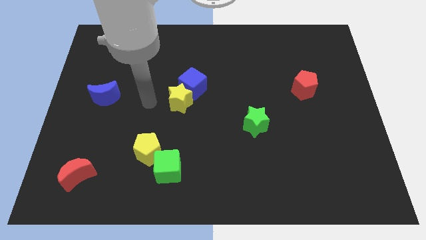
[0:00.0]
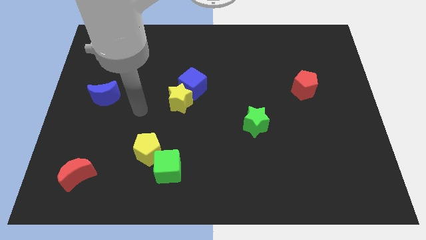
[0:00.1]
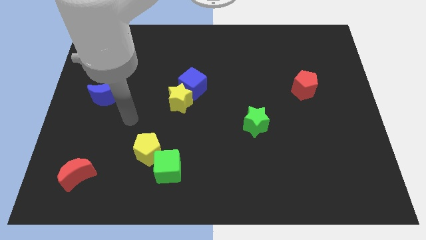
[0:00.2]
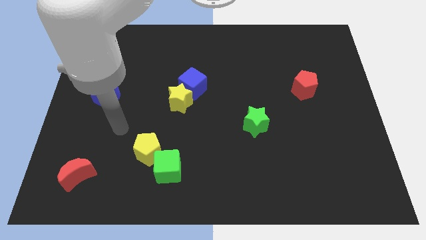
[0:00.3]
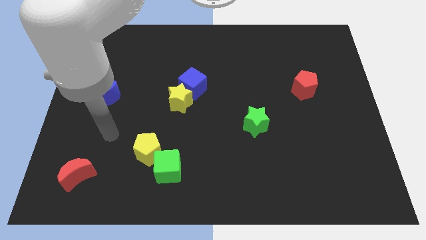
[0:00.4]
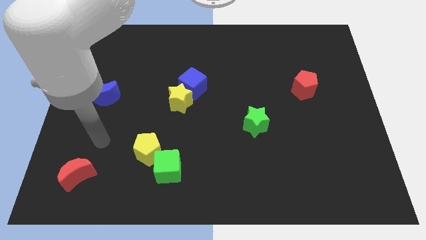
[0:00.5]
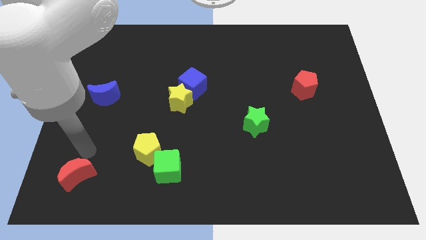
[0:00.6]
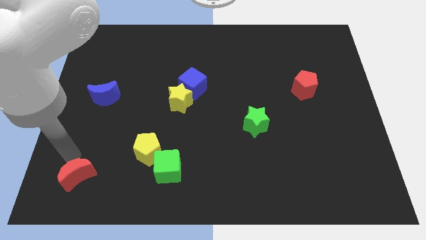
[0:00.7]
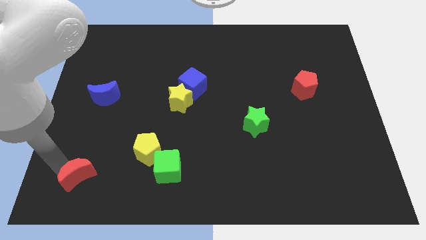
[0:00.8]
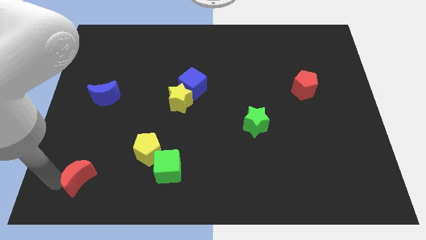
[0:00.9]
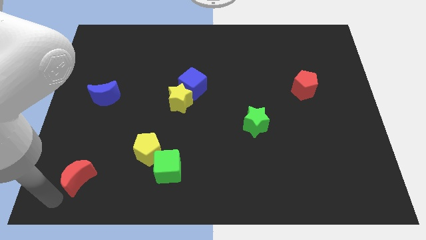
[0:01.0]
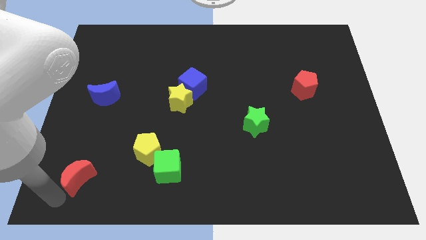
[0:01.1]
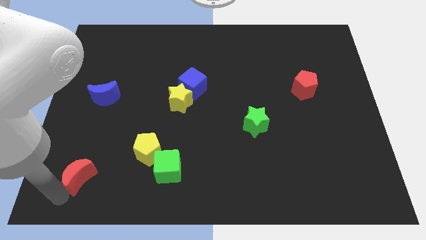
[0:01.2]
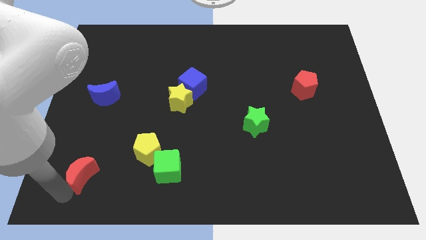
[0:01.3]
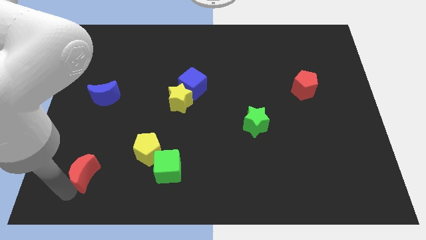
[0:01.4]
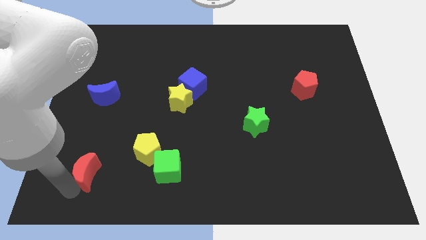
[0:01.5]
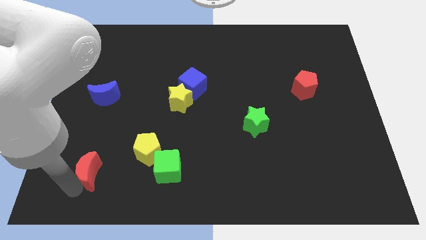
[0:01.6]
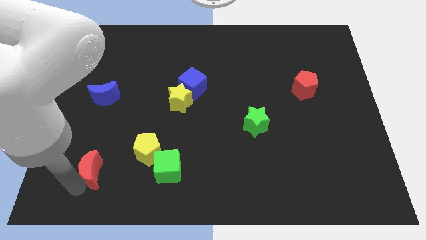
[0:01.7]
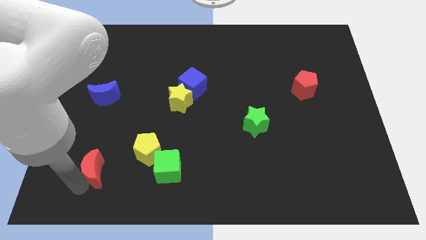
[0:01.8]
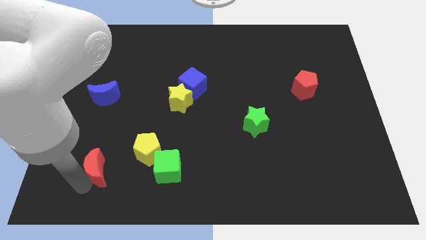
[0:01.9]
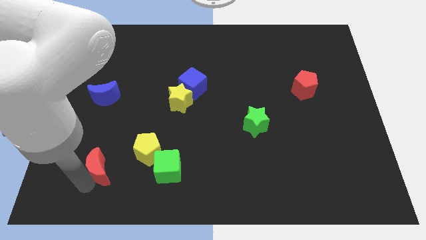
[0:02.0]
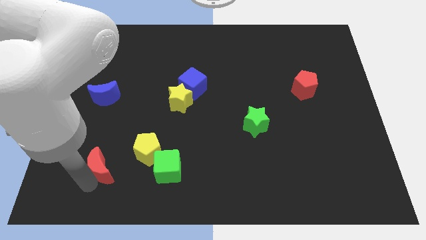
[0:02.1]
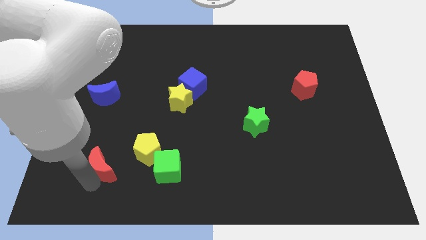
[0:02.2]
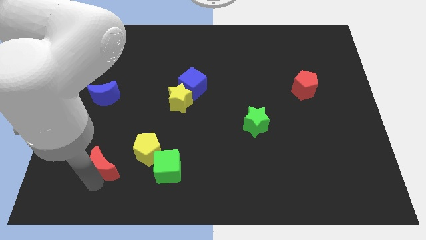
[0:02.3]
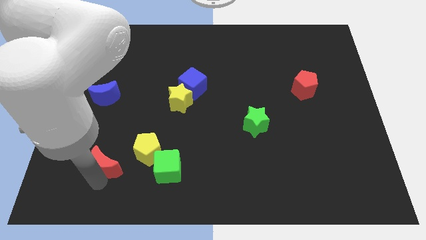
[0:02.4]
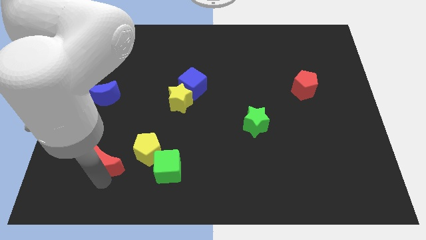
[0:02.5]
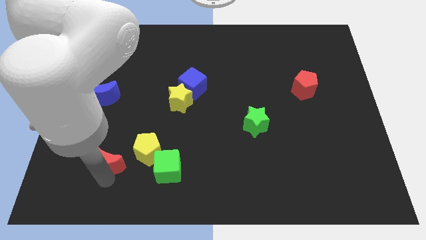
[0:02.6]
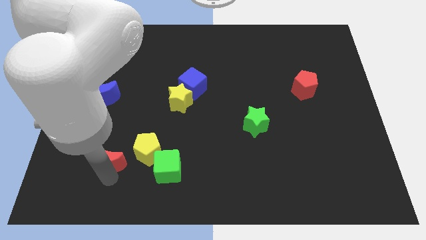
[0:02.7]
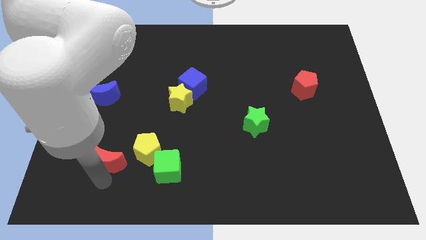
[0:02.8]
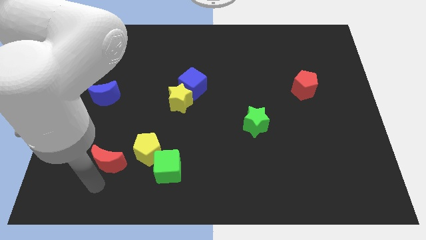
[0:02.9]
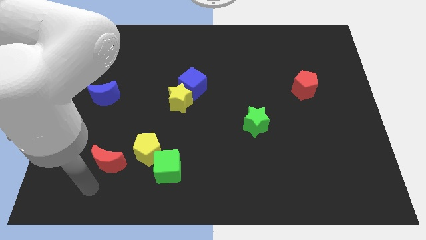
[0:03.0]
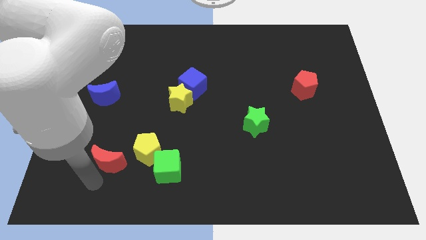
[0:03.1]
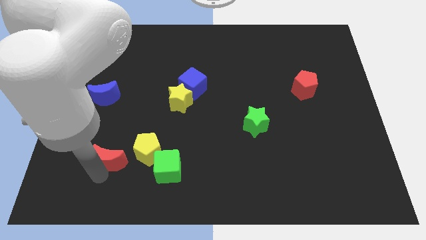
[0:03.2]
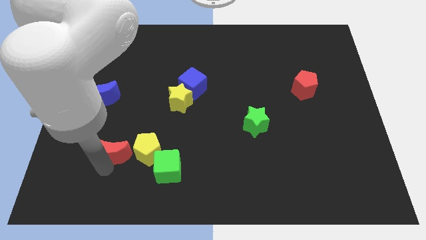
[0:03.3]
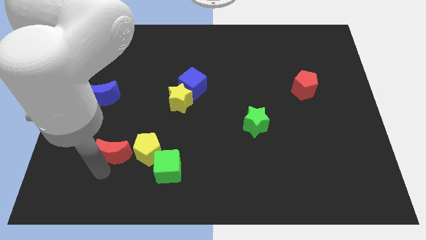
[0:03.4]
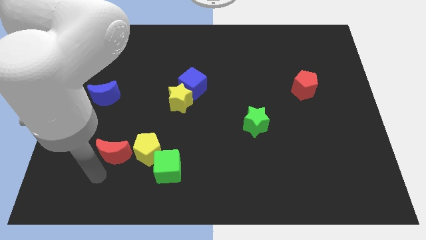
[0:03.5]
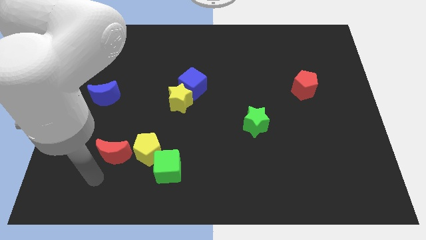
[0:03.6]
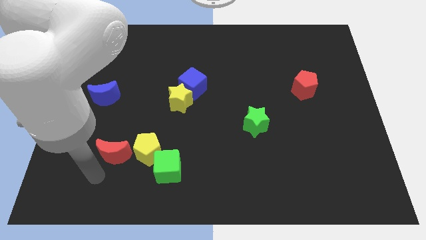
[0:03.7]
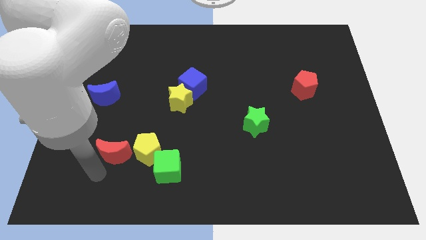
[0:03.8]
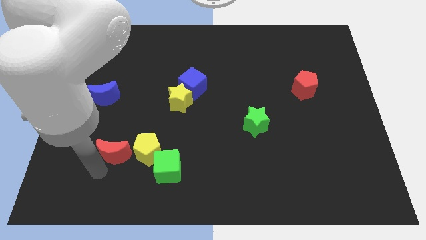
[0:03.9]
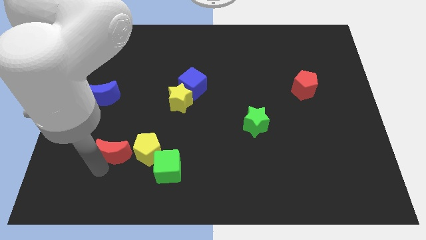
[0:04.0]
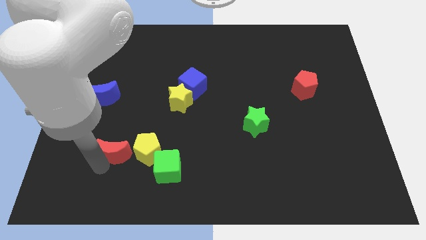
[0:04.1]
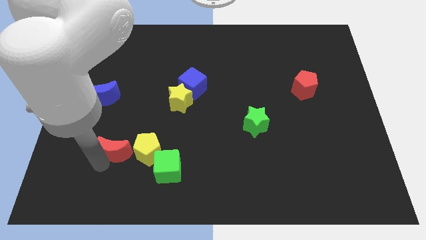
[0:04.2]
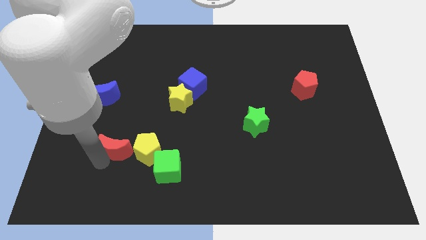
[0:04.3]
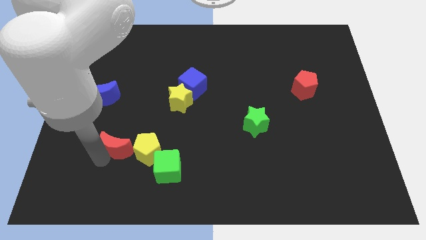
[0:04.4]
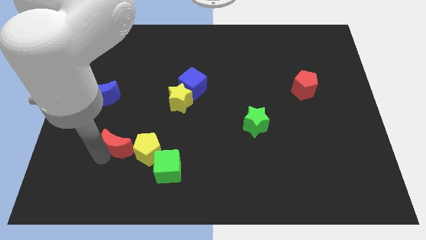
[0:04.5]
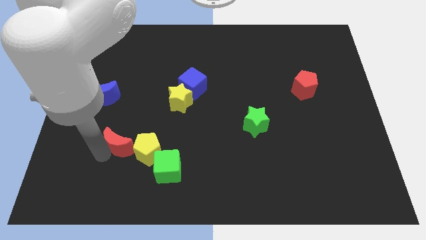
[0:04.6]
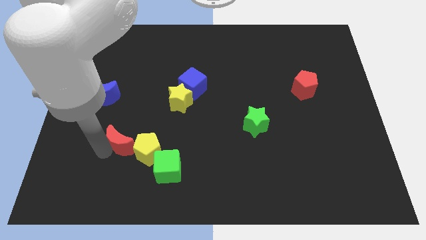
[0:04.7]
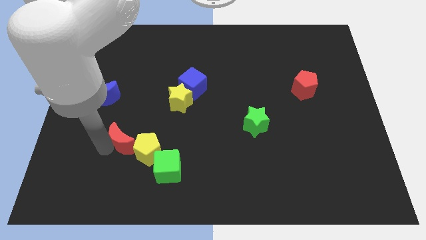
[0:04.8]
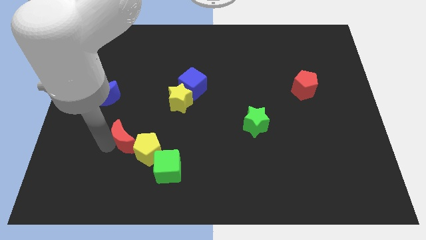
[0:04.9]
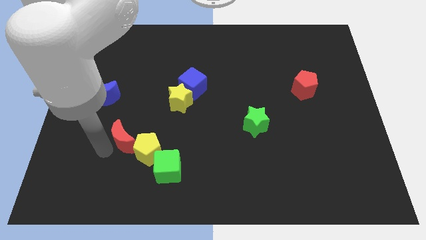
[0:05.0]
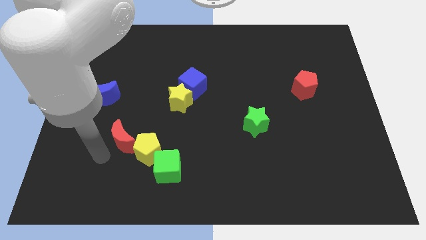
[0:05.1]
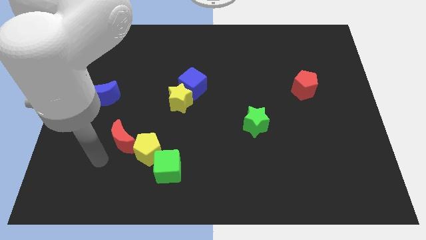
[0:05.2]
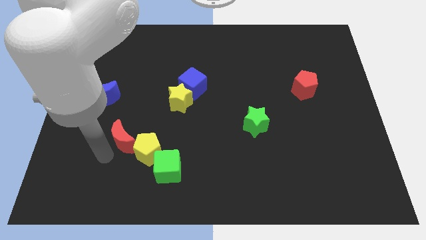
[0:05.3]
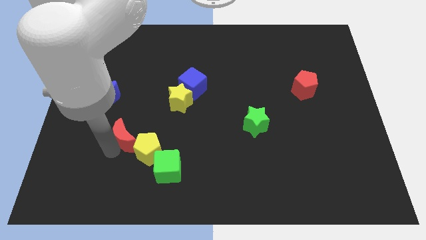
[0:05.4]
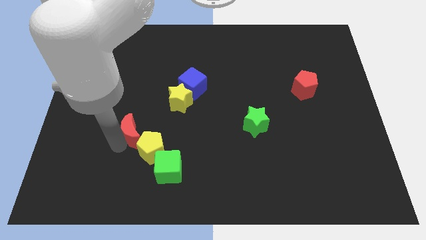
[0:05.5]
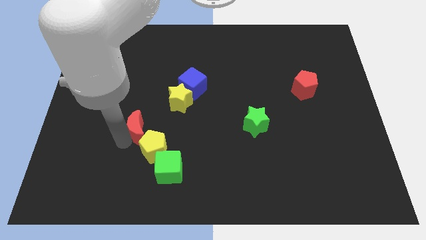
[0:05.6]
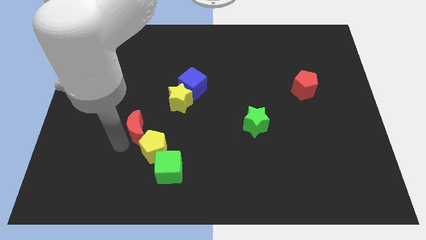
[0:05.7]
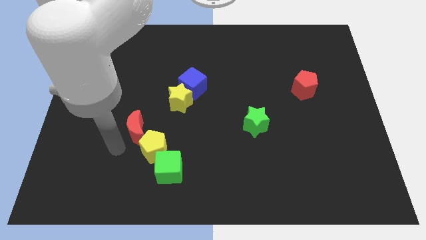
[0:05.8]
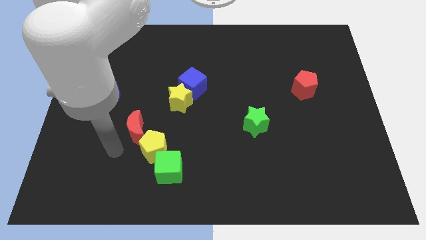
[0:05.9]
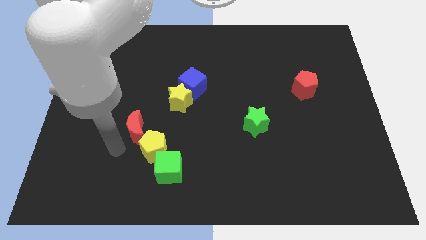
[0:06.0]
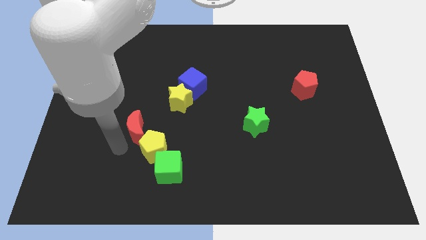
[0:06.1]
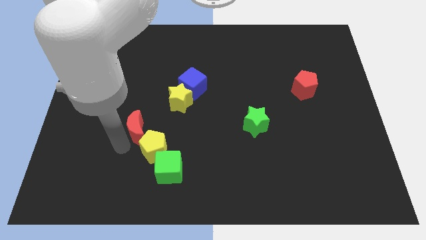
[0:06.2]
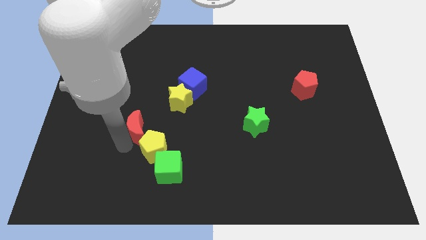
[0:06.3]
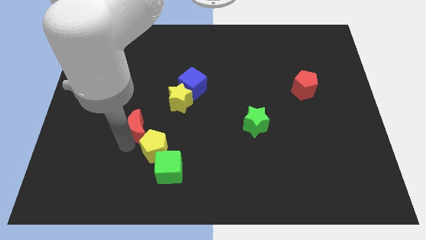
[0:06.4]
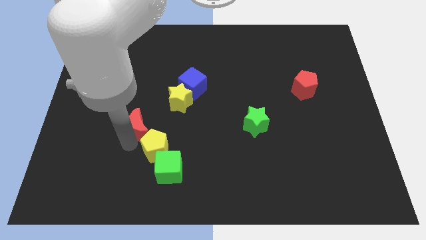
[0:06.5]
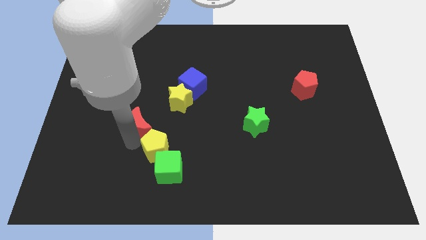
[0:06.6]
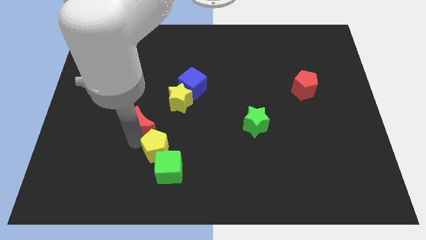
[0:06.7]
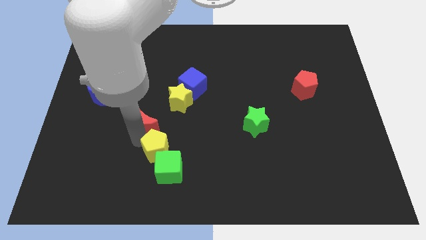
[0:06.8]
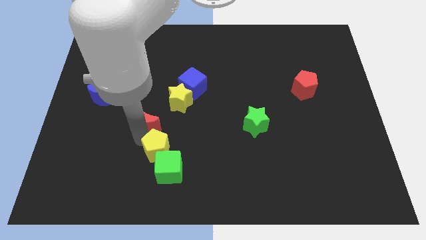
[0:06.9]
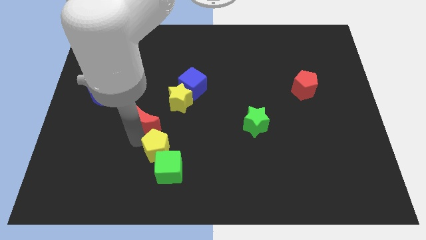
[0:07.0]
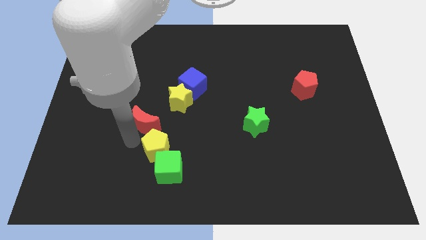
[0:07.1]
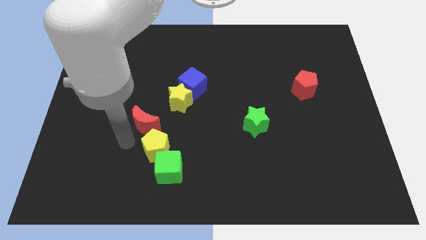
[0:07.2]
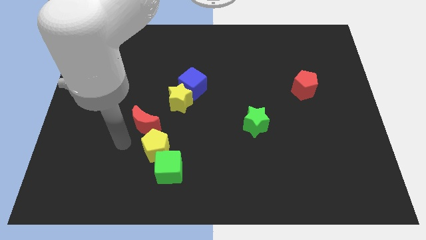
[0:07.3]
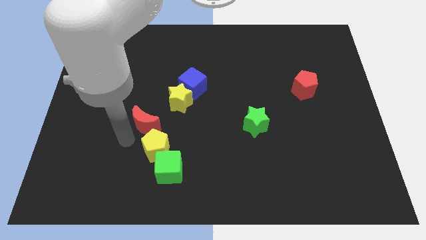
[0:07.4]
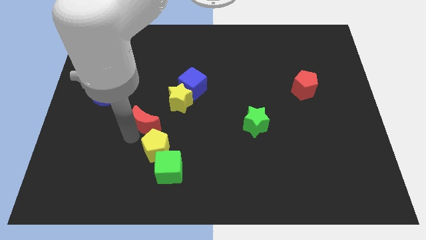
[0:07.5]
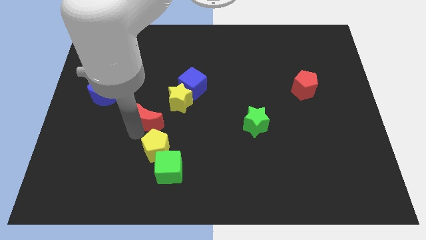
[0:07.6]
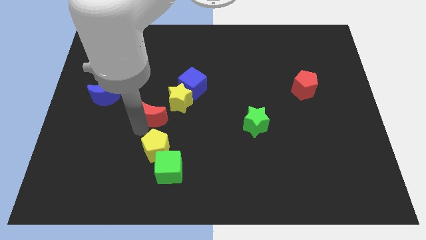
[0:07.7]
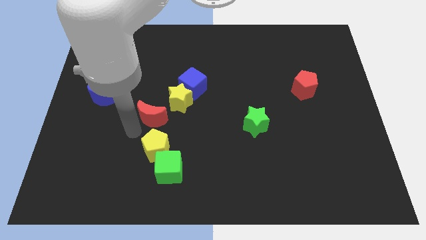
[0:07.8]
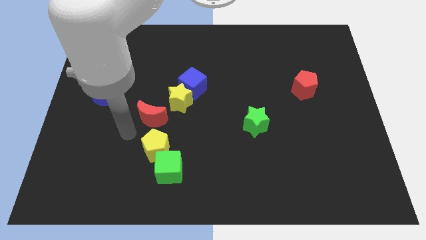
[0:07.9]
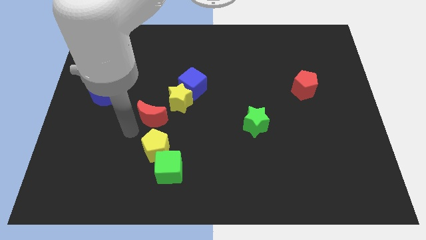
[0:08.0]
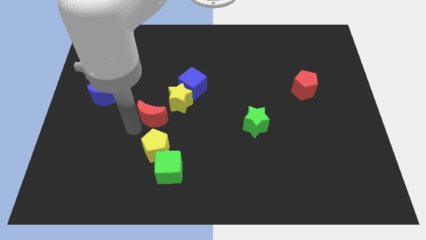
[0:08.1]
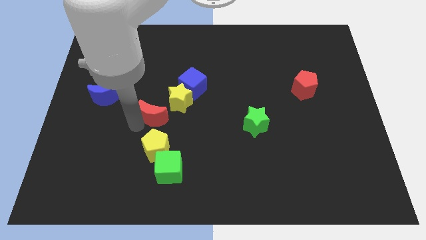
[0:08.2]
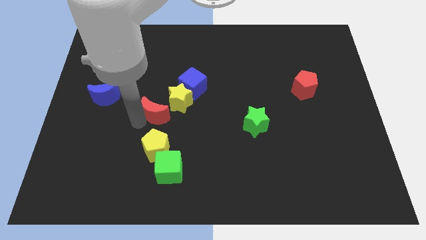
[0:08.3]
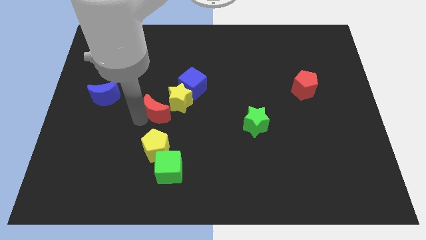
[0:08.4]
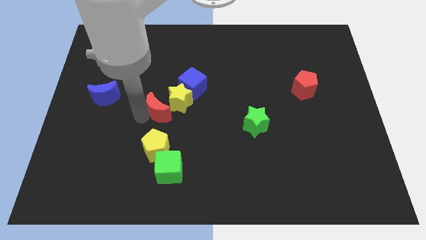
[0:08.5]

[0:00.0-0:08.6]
push the red moon close to the yellow star
